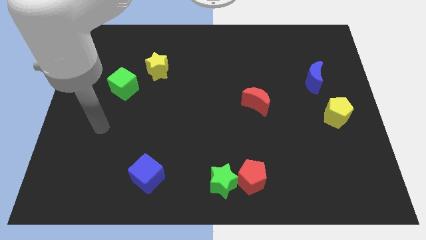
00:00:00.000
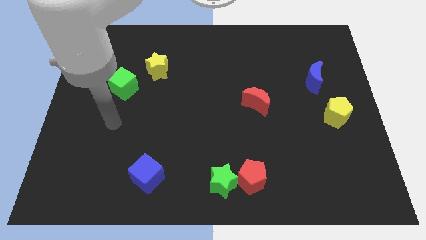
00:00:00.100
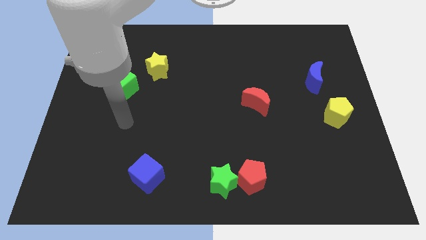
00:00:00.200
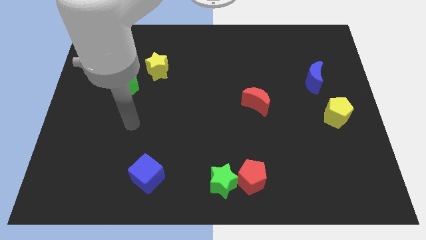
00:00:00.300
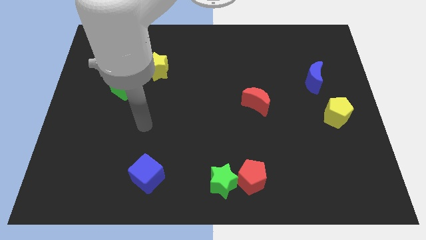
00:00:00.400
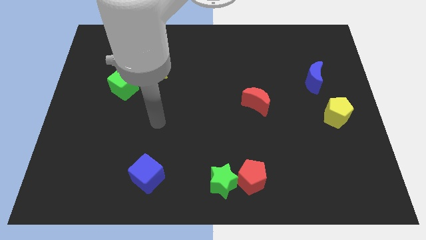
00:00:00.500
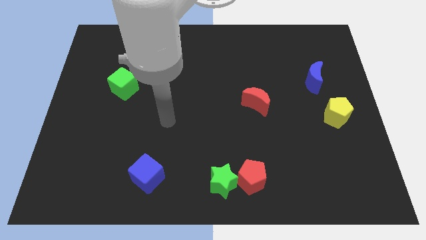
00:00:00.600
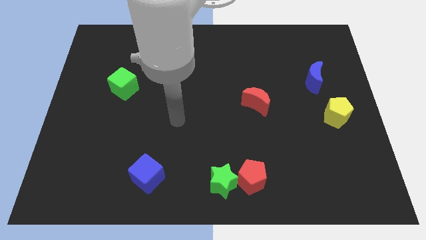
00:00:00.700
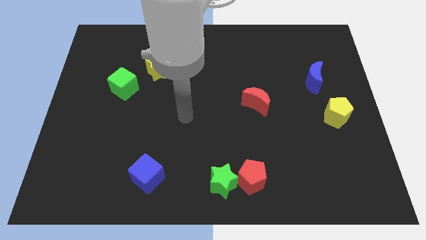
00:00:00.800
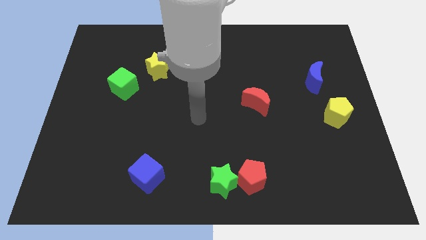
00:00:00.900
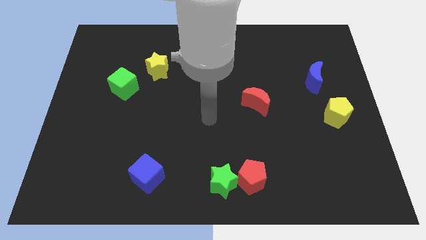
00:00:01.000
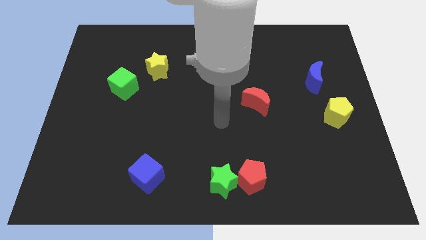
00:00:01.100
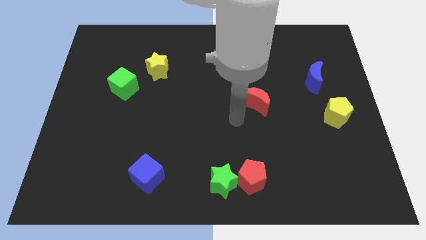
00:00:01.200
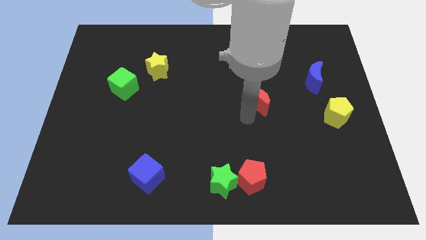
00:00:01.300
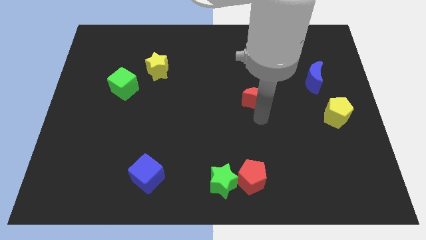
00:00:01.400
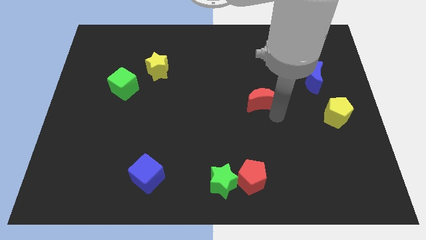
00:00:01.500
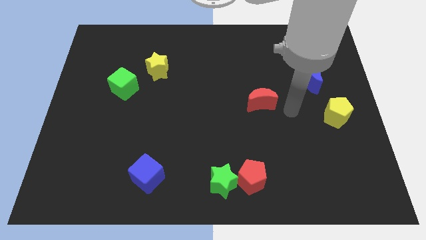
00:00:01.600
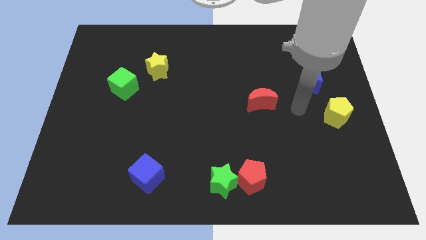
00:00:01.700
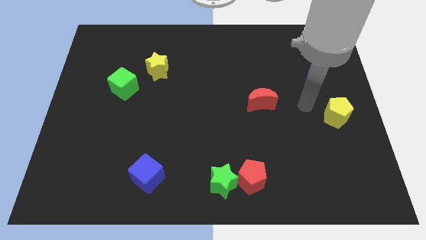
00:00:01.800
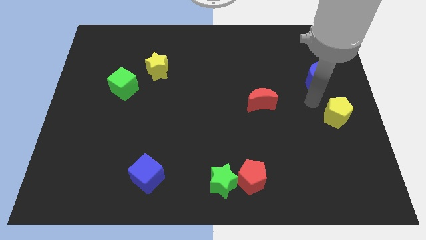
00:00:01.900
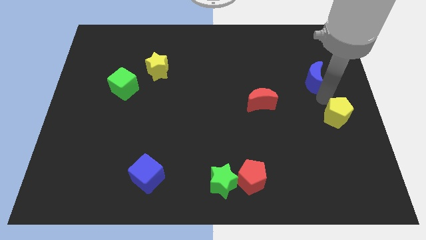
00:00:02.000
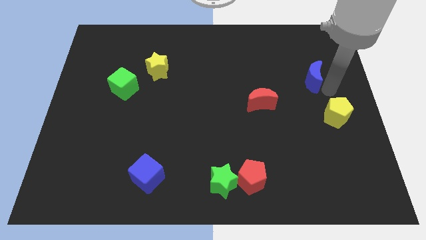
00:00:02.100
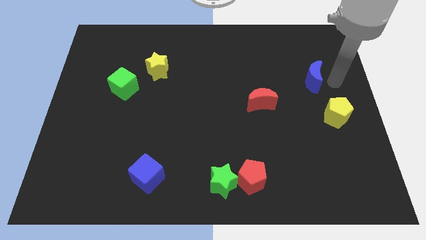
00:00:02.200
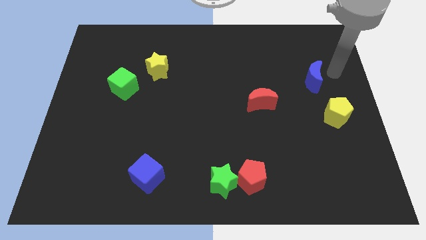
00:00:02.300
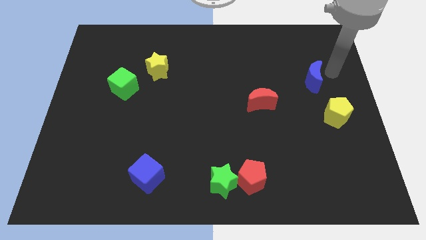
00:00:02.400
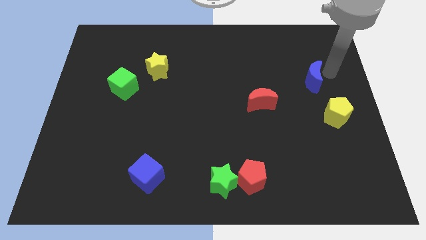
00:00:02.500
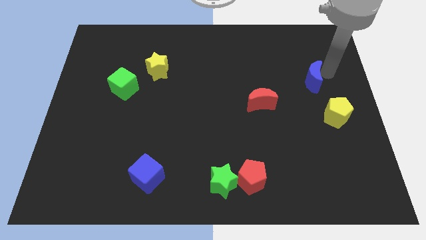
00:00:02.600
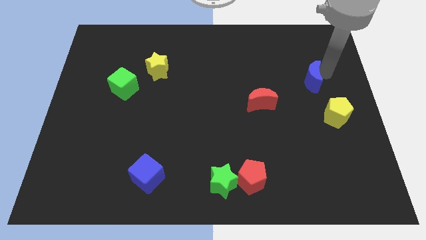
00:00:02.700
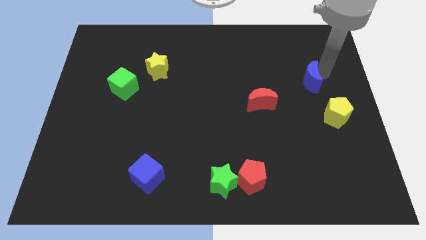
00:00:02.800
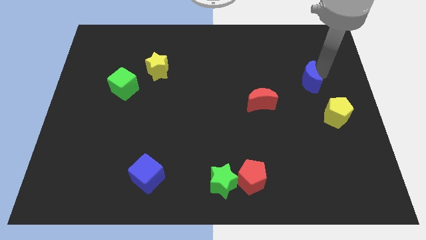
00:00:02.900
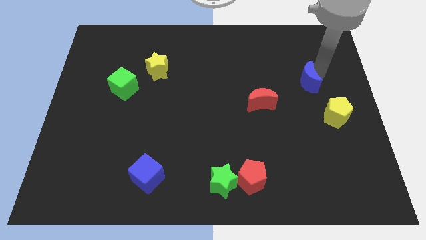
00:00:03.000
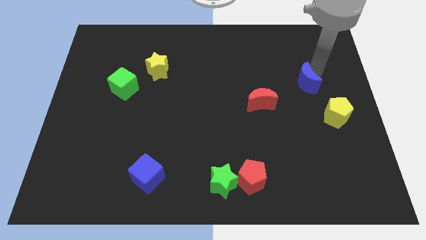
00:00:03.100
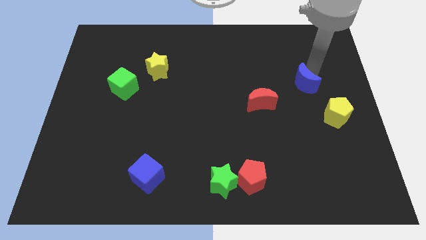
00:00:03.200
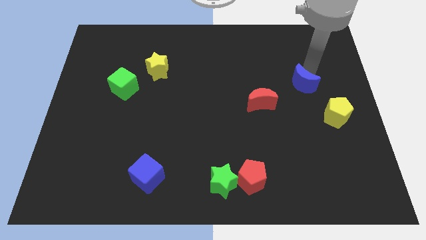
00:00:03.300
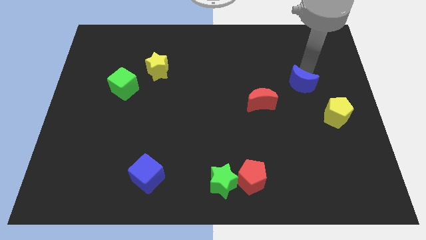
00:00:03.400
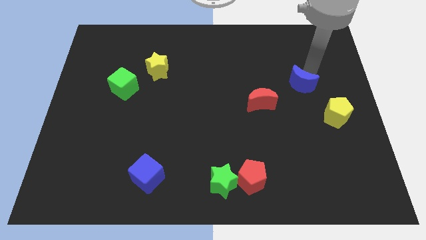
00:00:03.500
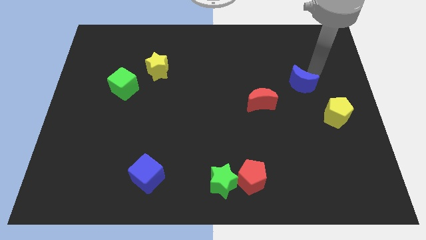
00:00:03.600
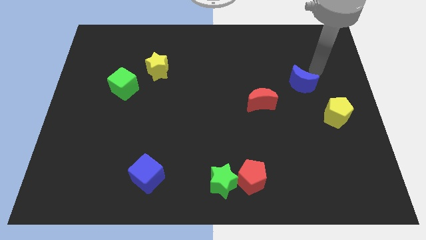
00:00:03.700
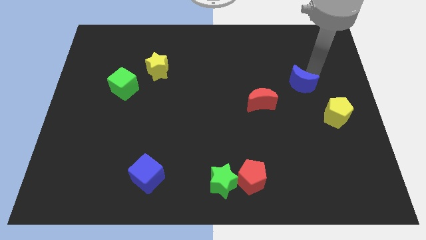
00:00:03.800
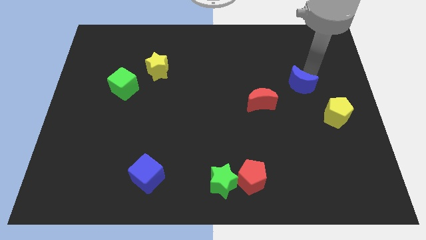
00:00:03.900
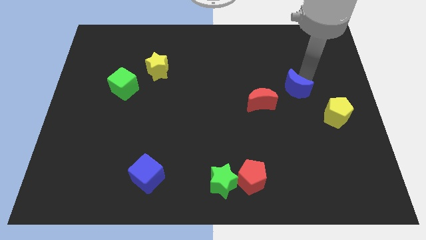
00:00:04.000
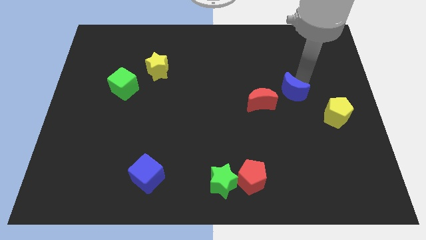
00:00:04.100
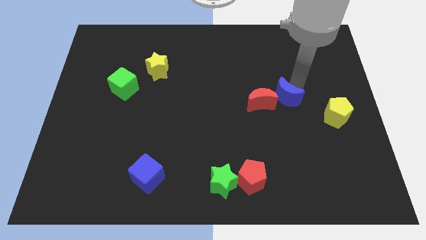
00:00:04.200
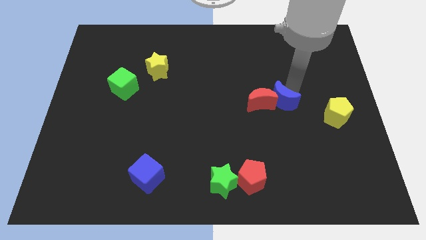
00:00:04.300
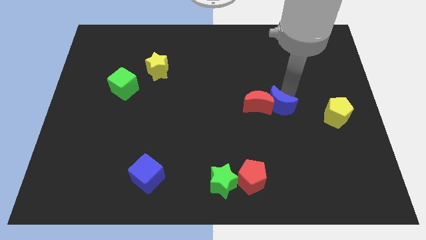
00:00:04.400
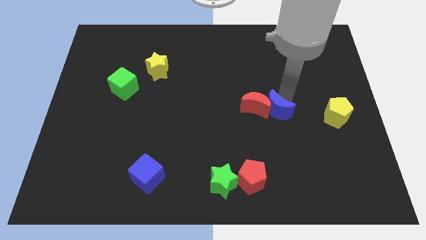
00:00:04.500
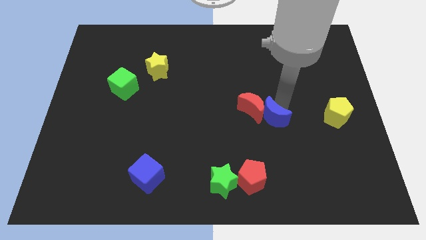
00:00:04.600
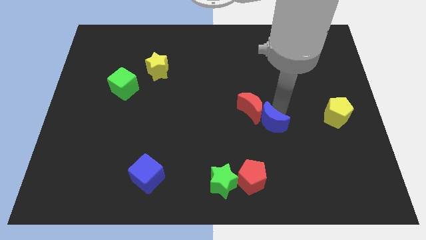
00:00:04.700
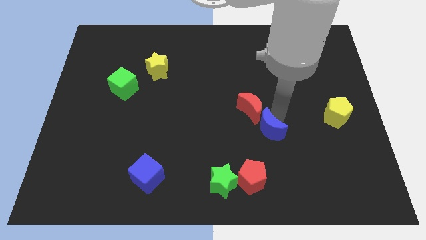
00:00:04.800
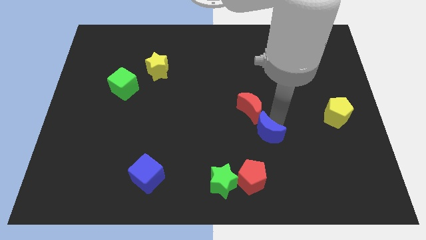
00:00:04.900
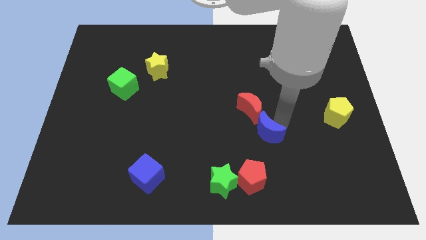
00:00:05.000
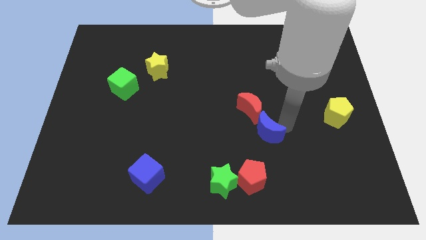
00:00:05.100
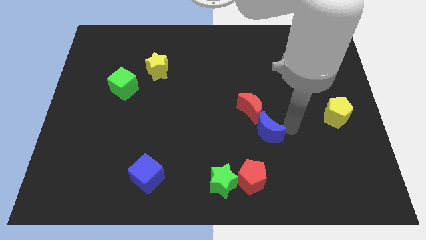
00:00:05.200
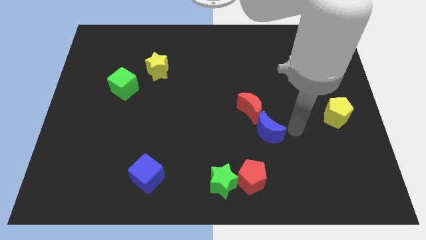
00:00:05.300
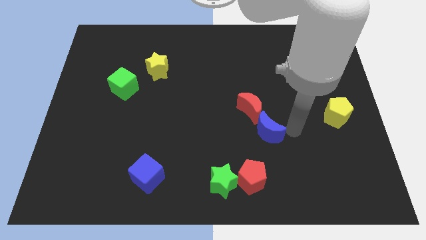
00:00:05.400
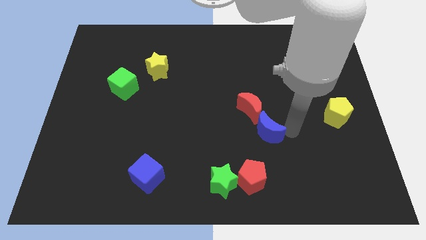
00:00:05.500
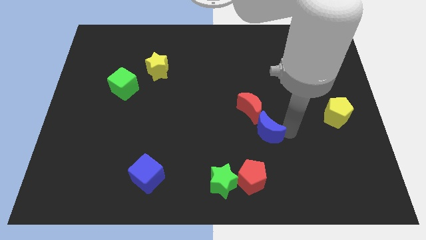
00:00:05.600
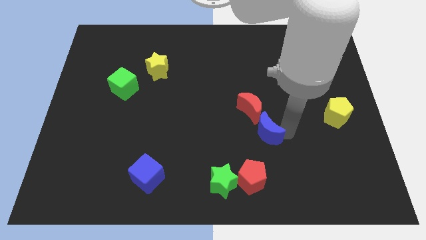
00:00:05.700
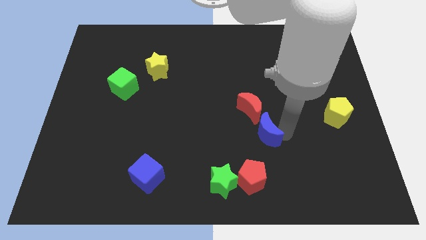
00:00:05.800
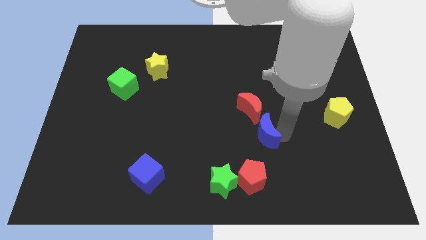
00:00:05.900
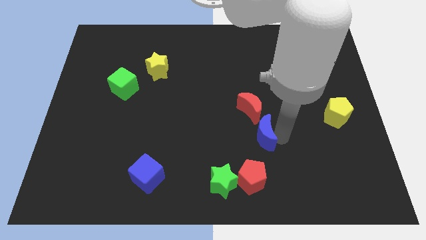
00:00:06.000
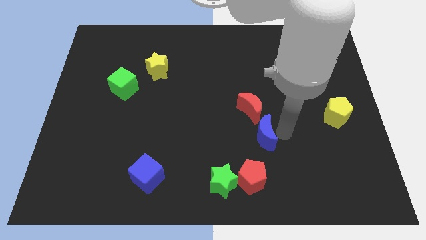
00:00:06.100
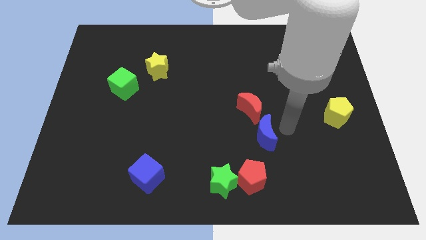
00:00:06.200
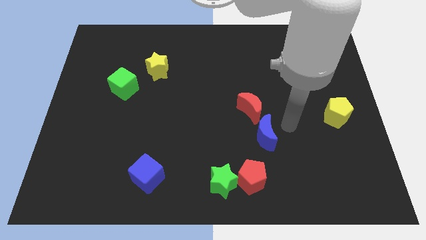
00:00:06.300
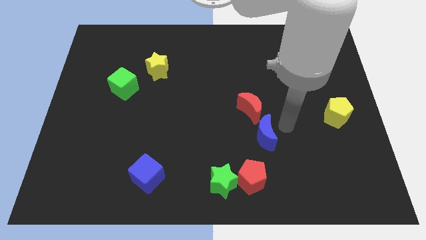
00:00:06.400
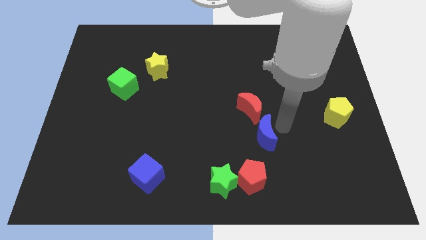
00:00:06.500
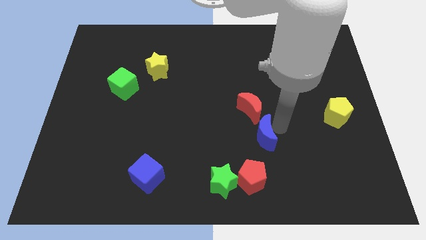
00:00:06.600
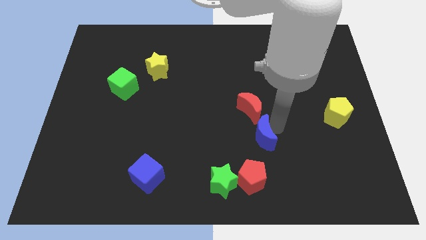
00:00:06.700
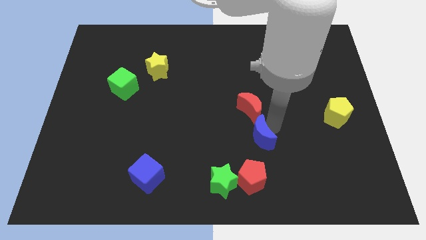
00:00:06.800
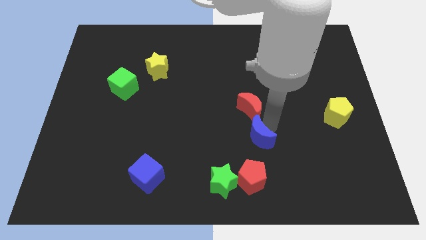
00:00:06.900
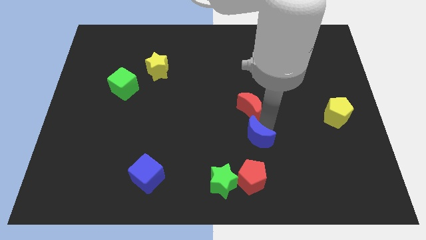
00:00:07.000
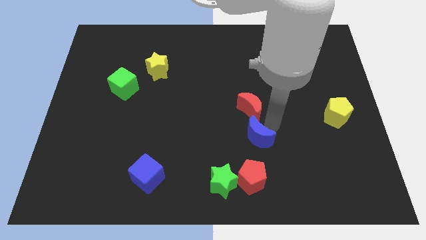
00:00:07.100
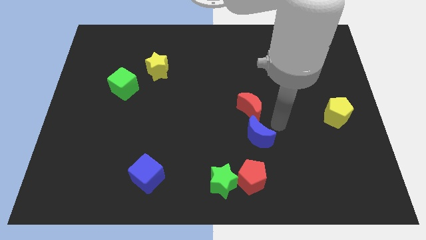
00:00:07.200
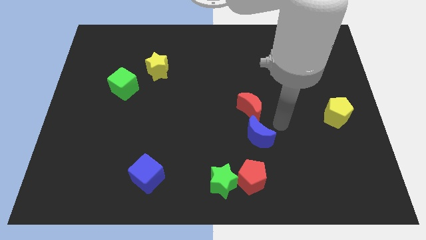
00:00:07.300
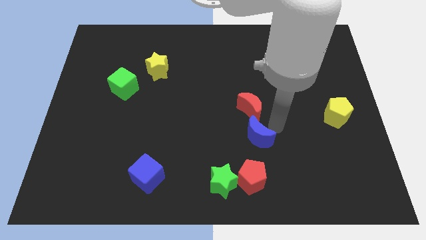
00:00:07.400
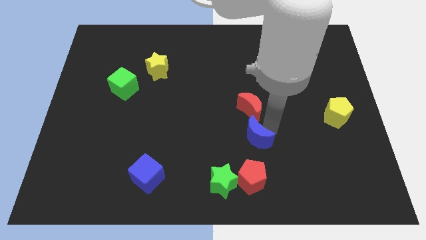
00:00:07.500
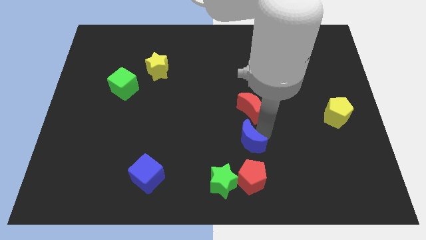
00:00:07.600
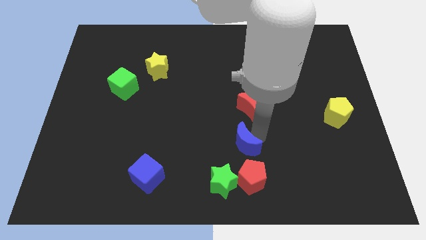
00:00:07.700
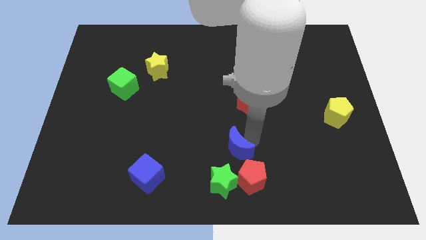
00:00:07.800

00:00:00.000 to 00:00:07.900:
put the blue moon to the top left of the red pentagon
